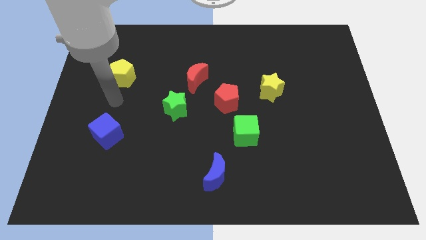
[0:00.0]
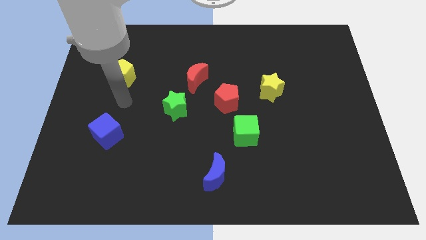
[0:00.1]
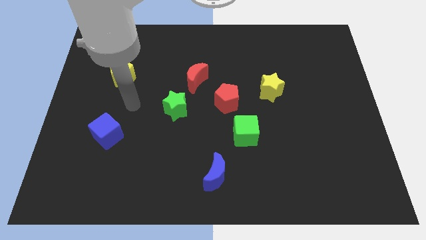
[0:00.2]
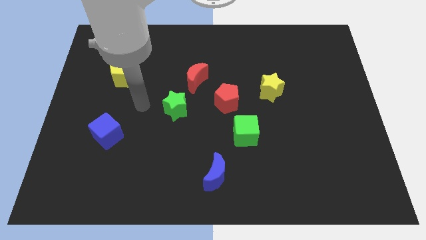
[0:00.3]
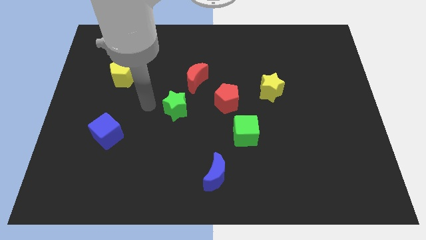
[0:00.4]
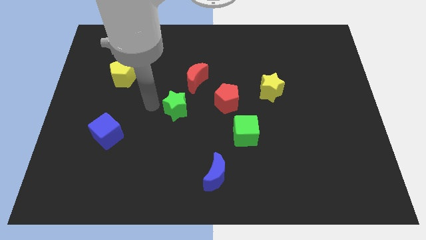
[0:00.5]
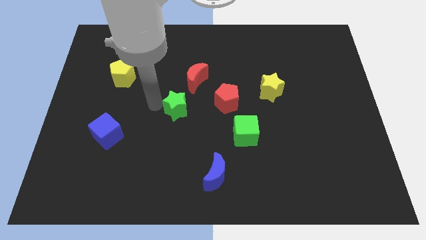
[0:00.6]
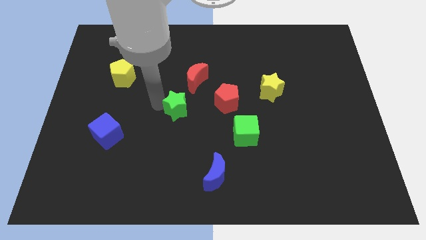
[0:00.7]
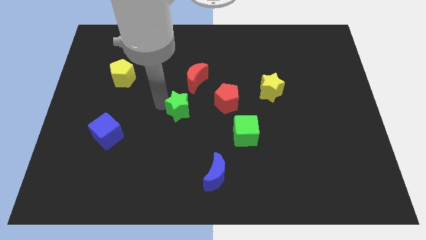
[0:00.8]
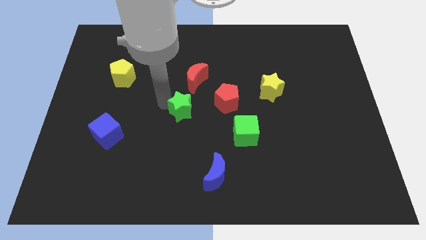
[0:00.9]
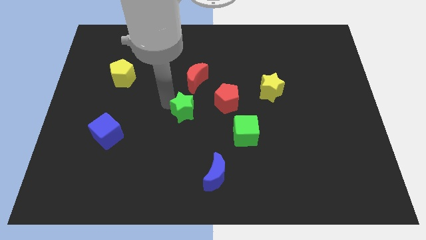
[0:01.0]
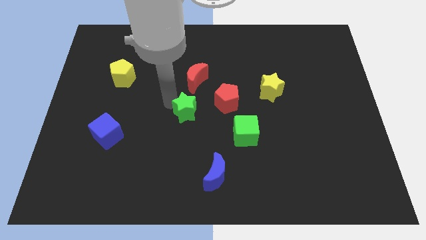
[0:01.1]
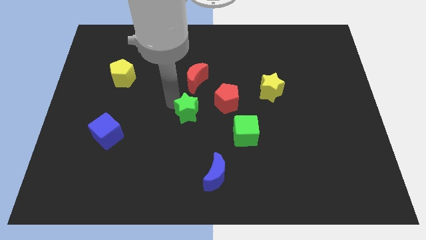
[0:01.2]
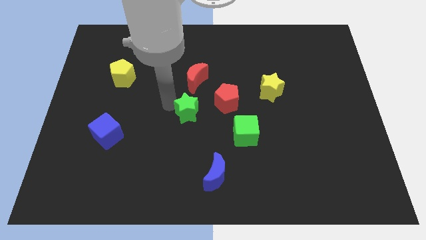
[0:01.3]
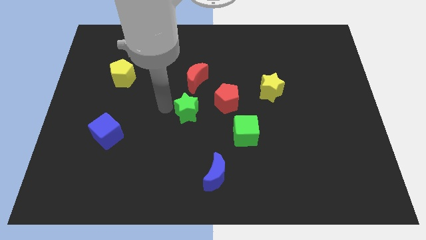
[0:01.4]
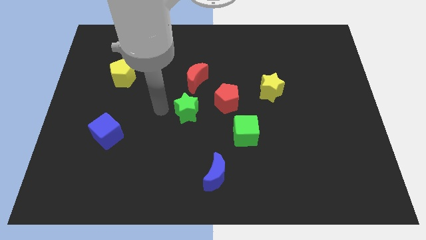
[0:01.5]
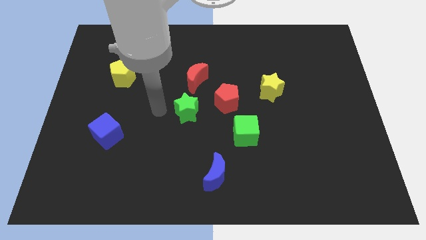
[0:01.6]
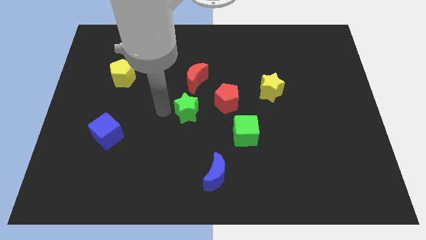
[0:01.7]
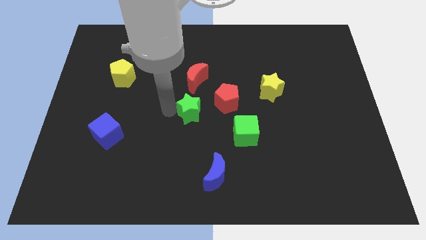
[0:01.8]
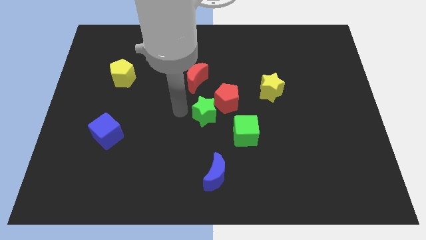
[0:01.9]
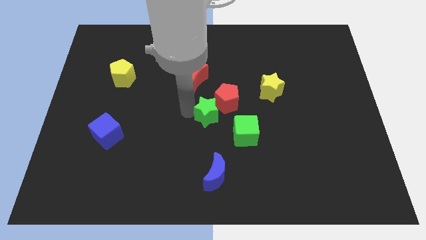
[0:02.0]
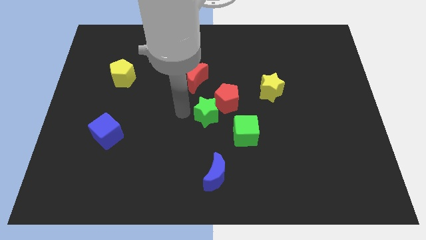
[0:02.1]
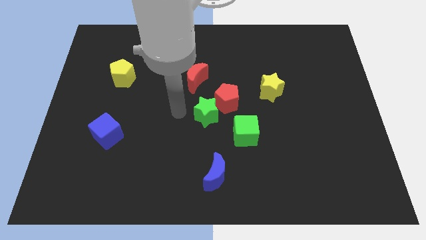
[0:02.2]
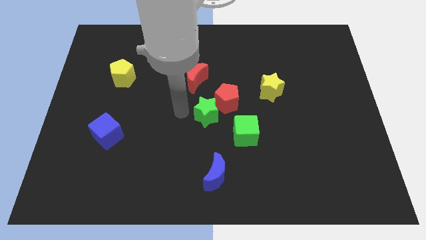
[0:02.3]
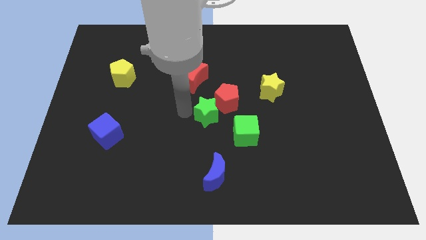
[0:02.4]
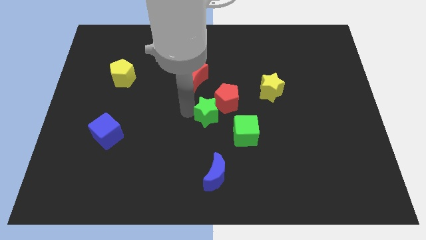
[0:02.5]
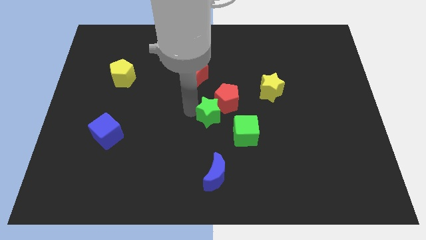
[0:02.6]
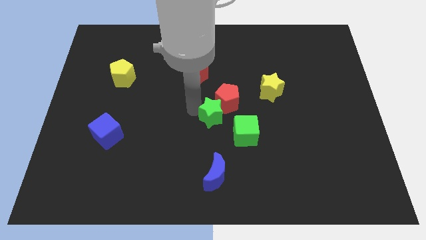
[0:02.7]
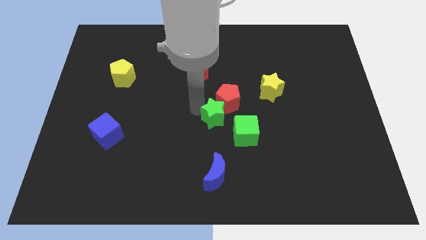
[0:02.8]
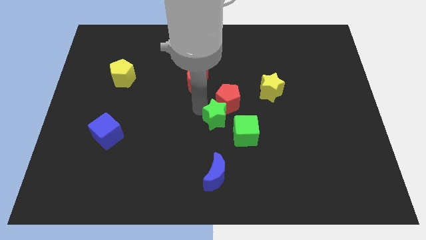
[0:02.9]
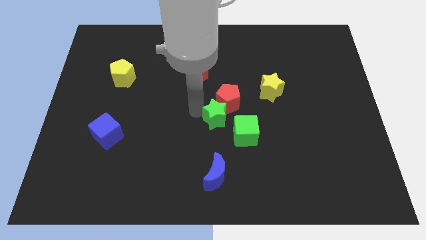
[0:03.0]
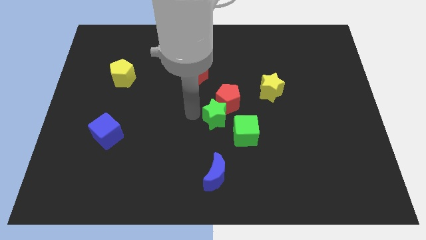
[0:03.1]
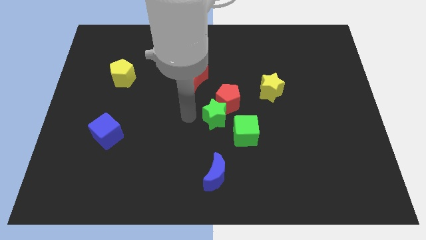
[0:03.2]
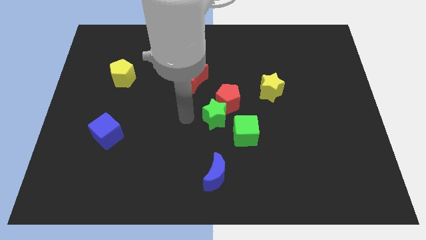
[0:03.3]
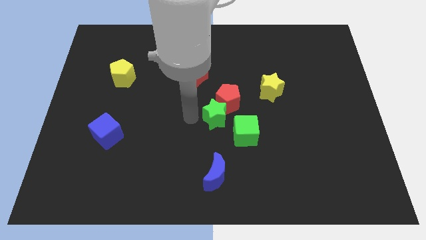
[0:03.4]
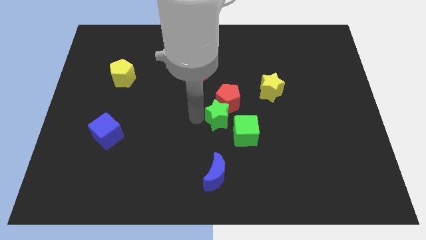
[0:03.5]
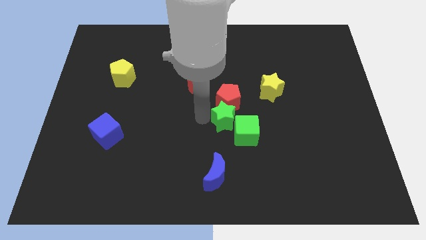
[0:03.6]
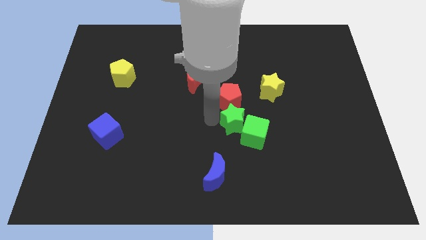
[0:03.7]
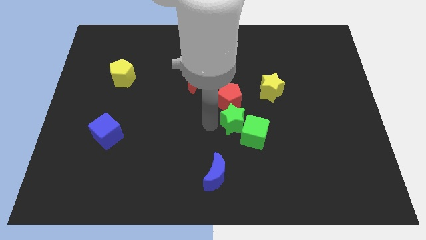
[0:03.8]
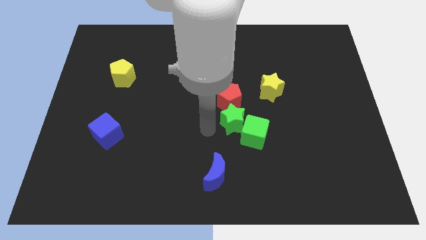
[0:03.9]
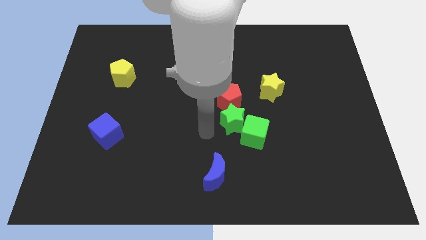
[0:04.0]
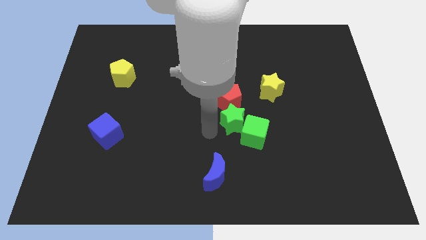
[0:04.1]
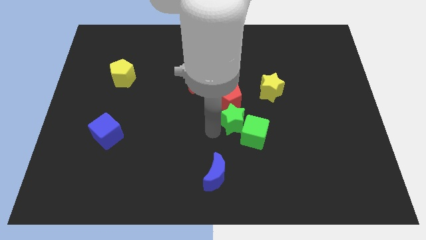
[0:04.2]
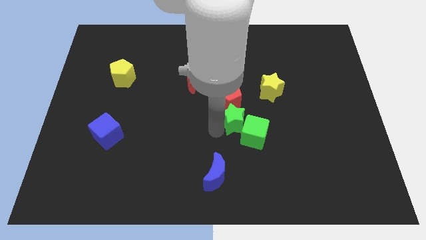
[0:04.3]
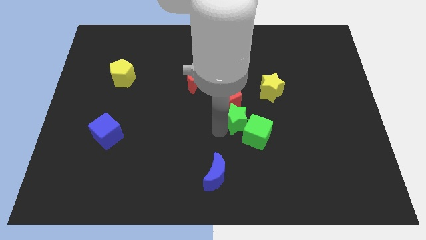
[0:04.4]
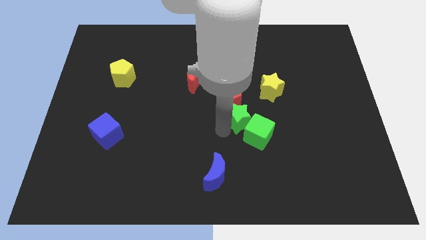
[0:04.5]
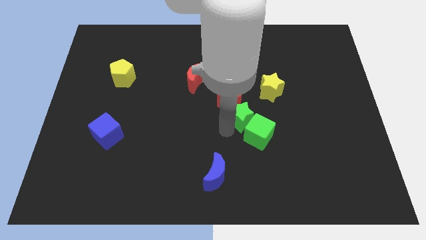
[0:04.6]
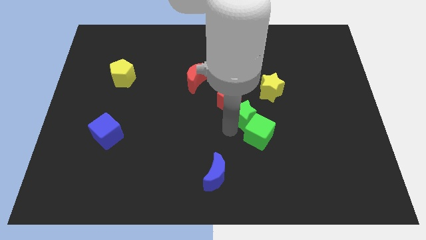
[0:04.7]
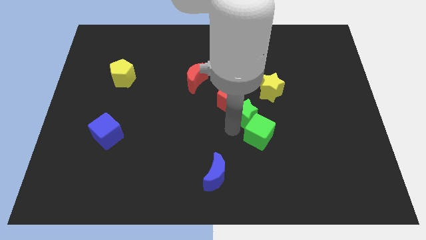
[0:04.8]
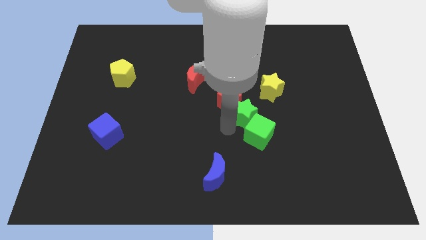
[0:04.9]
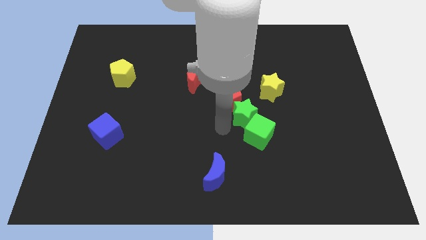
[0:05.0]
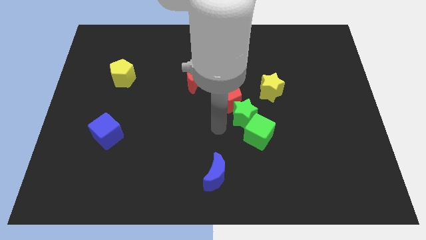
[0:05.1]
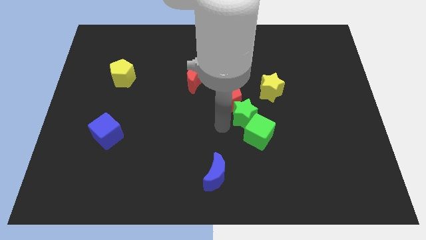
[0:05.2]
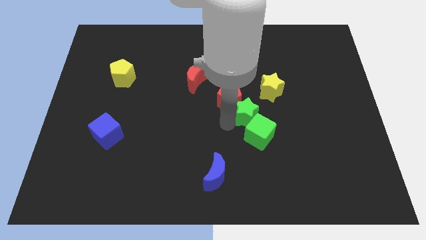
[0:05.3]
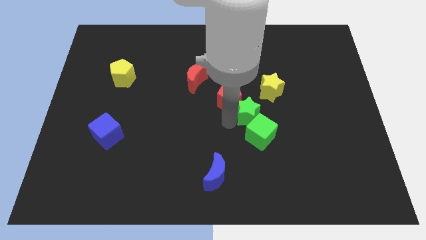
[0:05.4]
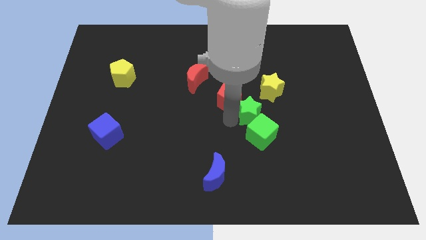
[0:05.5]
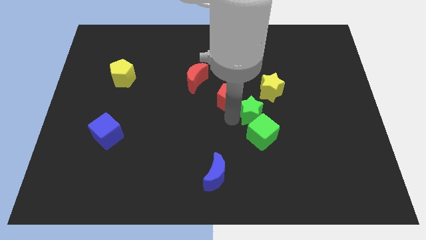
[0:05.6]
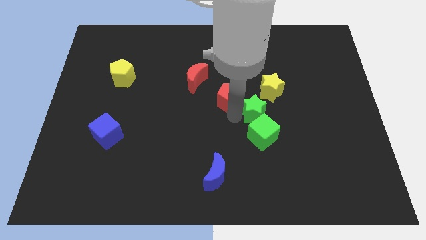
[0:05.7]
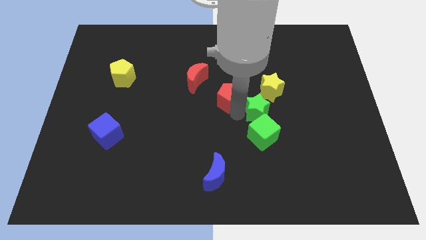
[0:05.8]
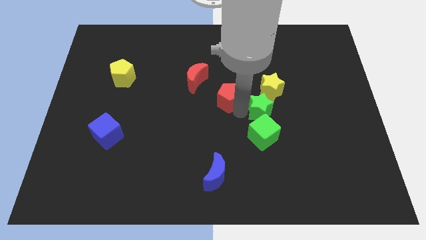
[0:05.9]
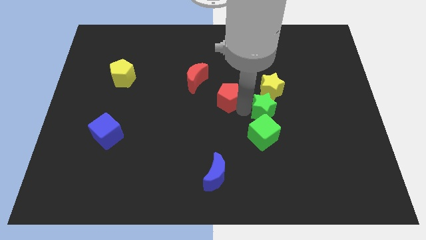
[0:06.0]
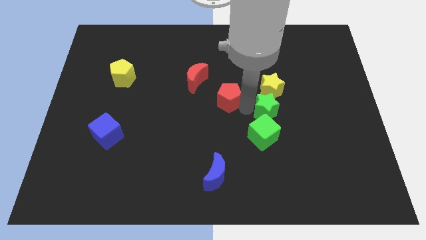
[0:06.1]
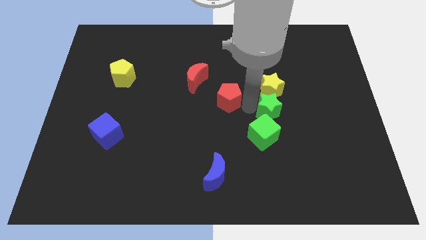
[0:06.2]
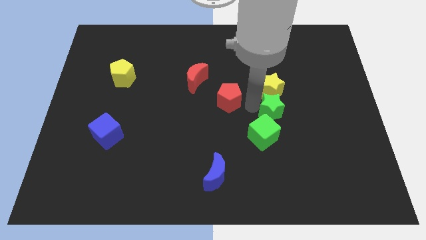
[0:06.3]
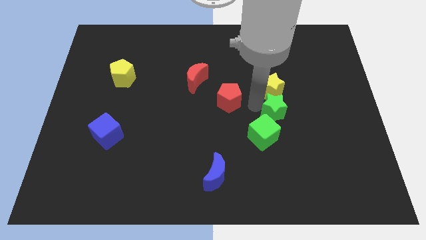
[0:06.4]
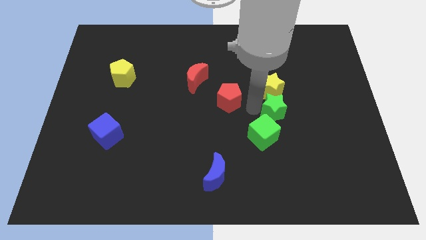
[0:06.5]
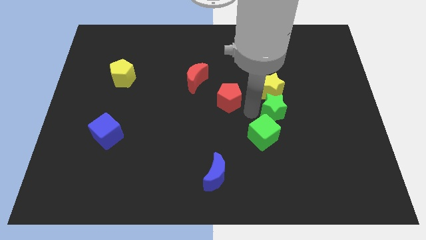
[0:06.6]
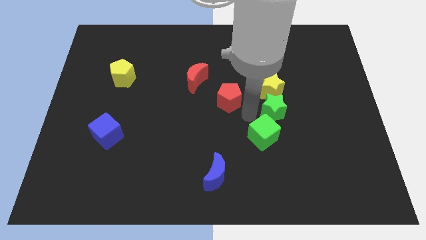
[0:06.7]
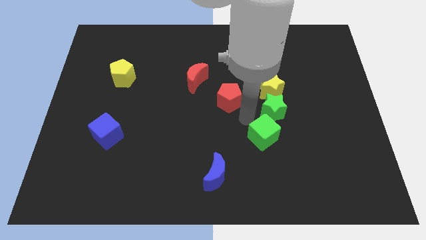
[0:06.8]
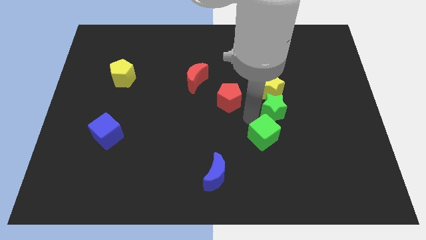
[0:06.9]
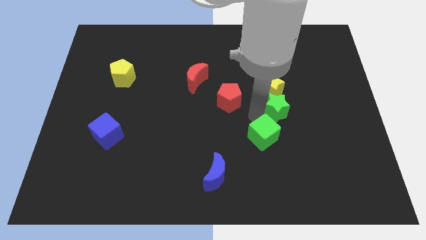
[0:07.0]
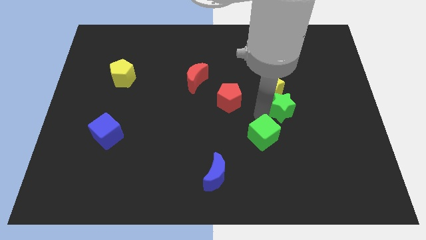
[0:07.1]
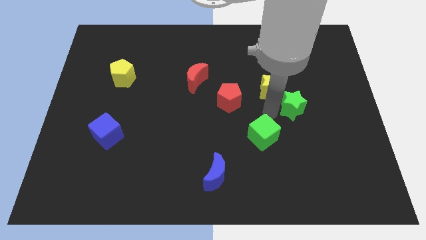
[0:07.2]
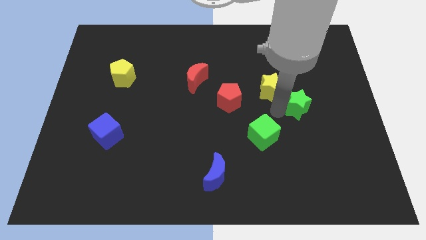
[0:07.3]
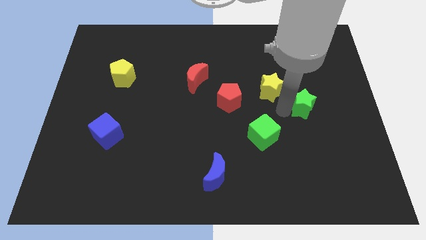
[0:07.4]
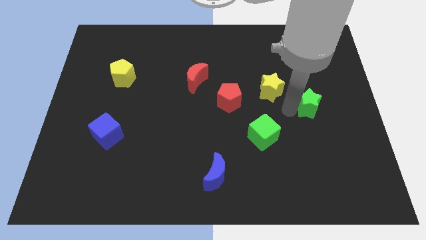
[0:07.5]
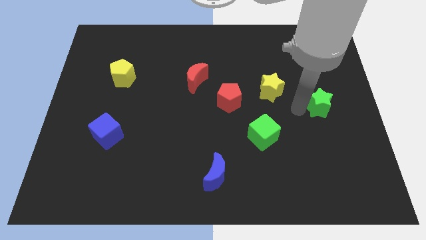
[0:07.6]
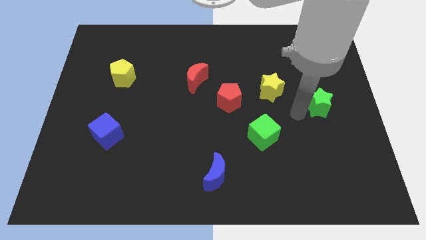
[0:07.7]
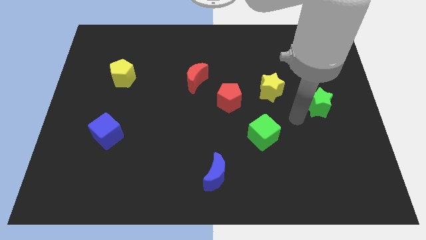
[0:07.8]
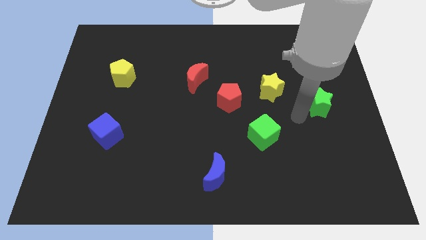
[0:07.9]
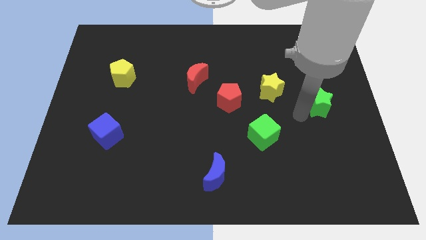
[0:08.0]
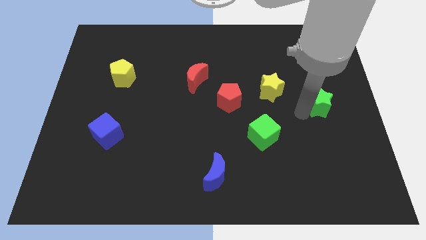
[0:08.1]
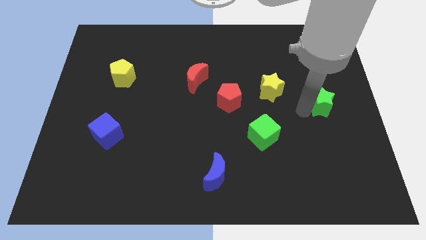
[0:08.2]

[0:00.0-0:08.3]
put the green star to the center right
